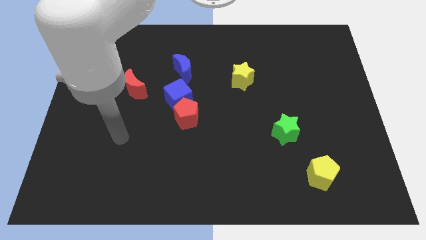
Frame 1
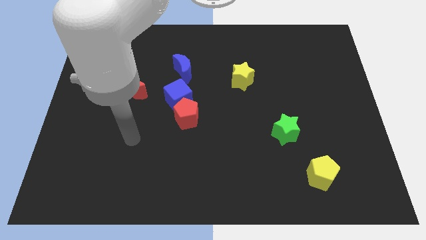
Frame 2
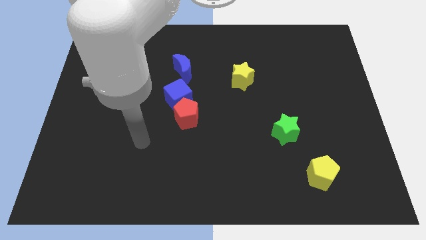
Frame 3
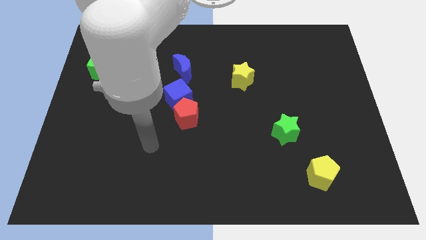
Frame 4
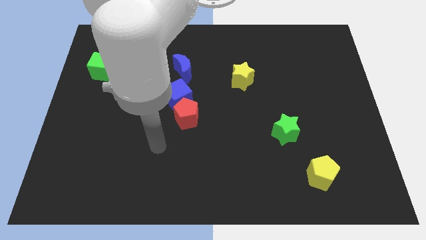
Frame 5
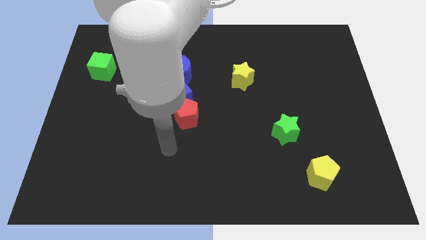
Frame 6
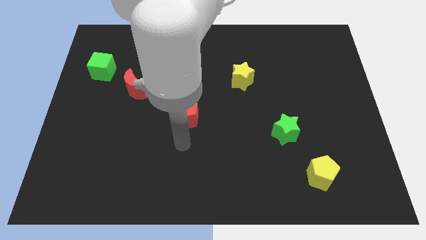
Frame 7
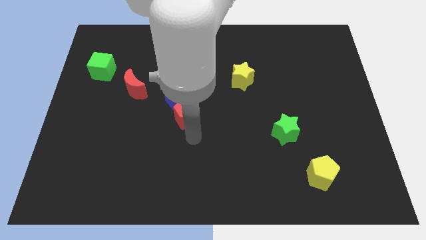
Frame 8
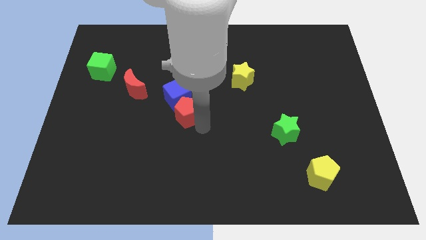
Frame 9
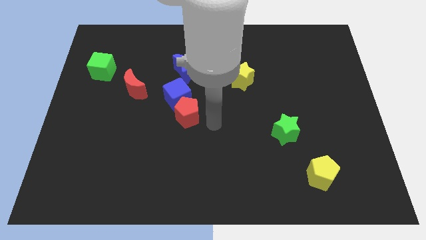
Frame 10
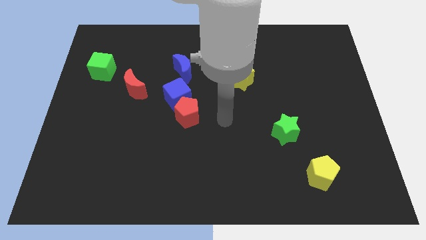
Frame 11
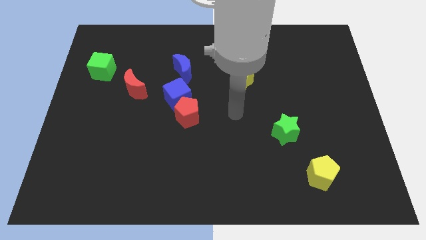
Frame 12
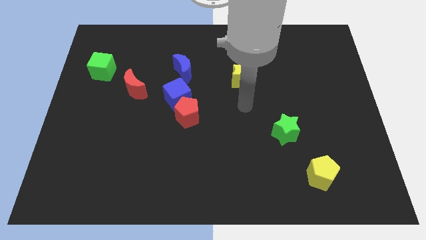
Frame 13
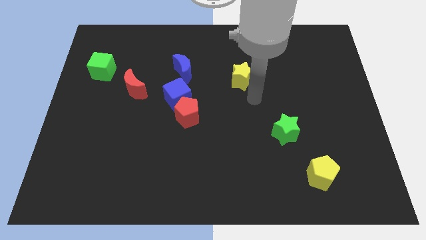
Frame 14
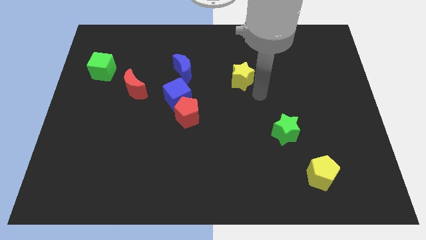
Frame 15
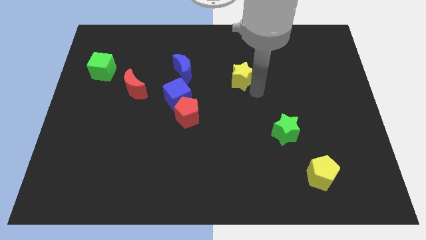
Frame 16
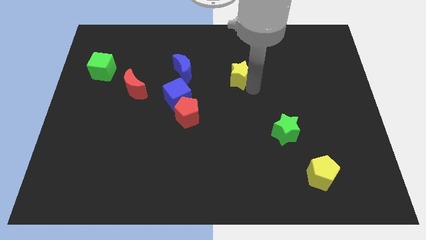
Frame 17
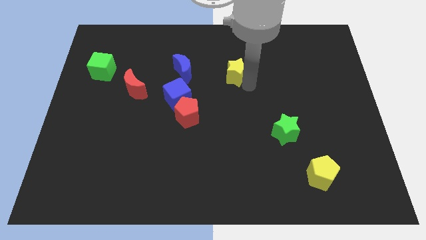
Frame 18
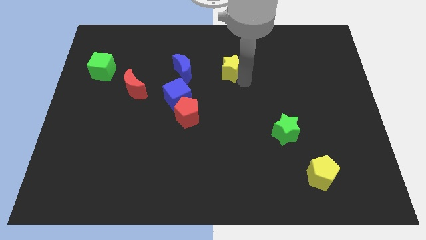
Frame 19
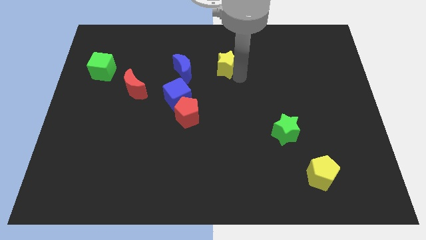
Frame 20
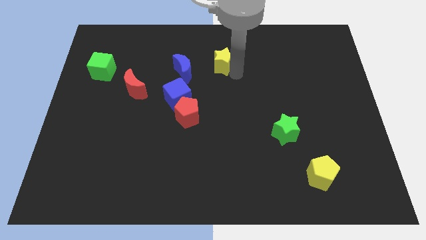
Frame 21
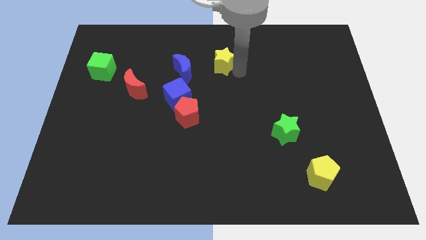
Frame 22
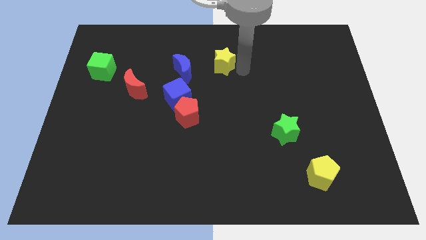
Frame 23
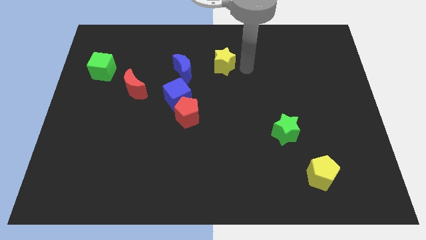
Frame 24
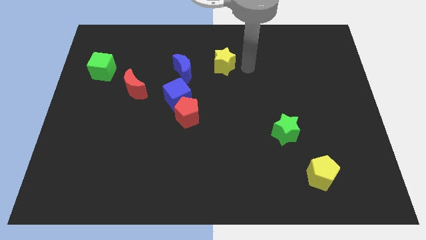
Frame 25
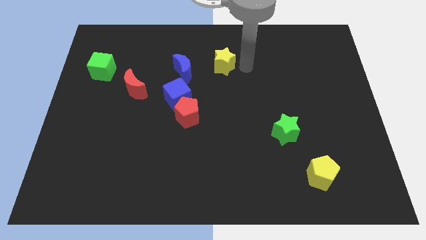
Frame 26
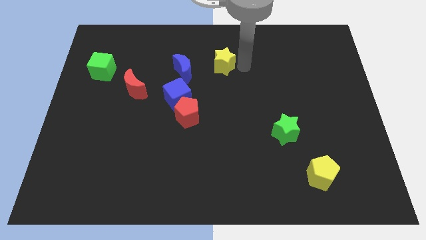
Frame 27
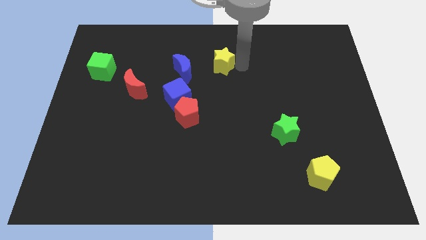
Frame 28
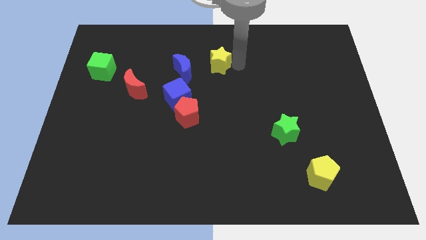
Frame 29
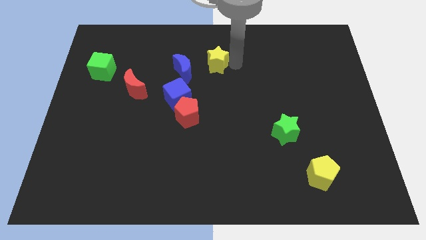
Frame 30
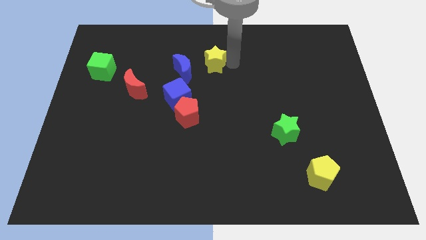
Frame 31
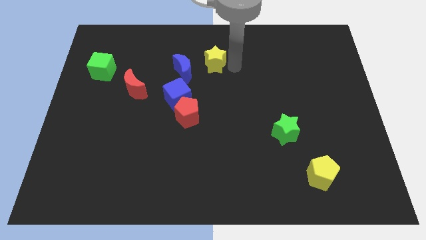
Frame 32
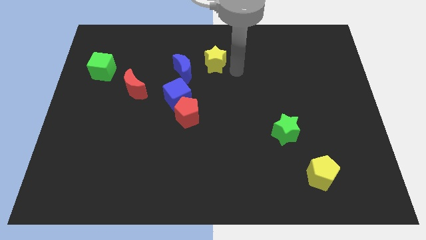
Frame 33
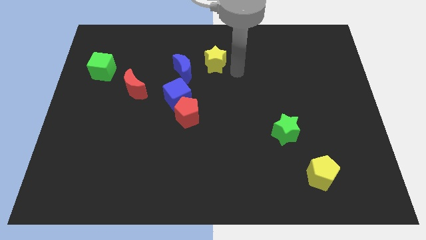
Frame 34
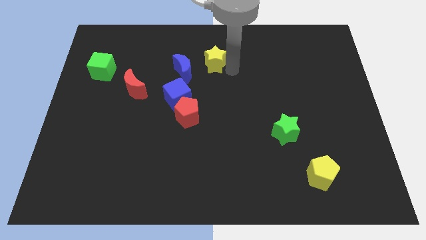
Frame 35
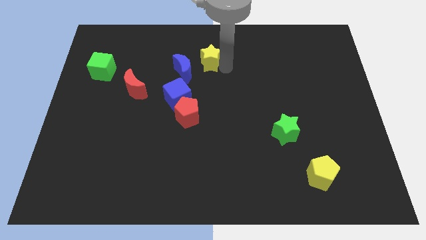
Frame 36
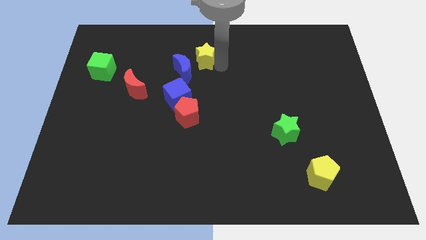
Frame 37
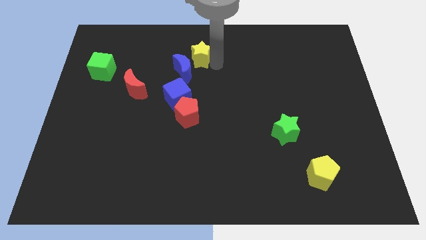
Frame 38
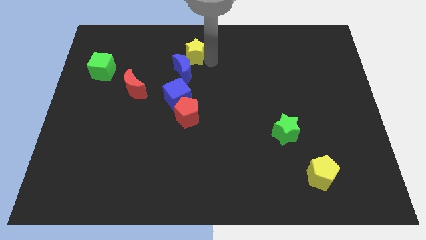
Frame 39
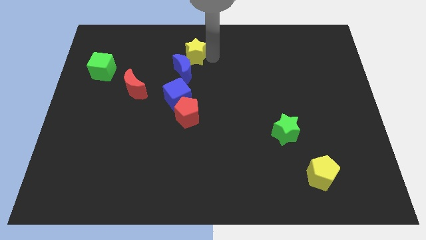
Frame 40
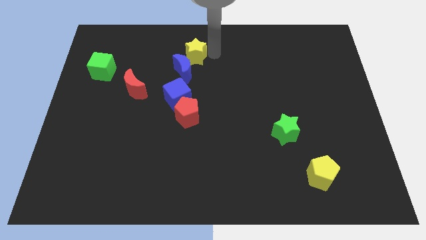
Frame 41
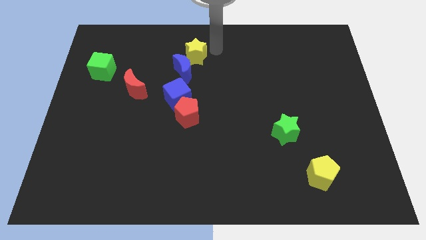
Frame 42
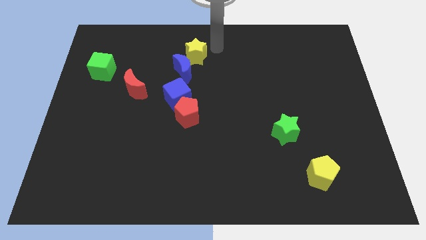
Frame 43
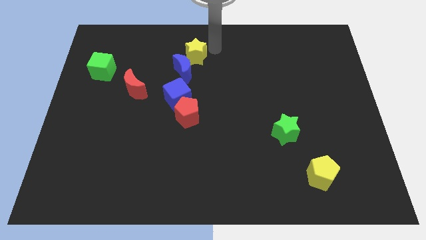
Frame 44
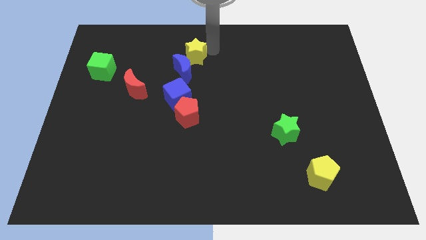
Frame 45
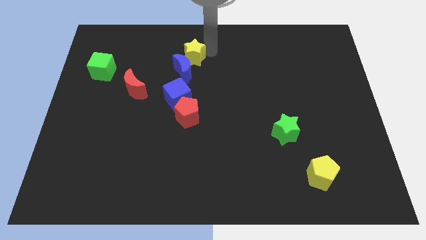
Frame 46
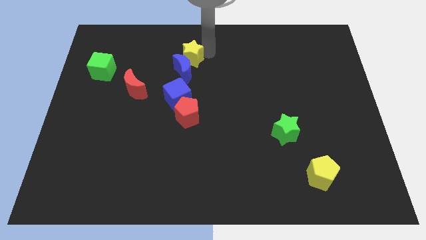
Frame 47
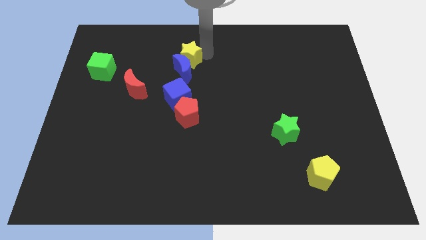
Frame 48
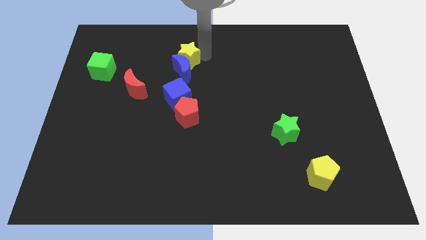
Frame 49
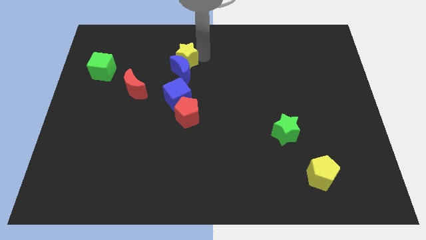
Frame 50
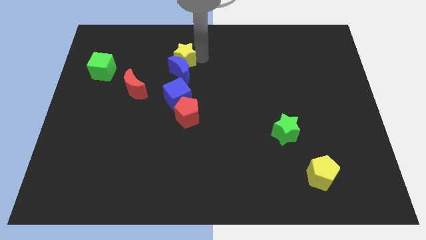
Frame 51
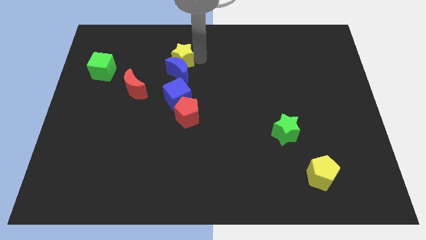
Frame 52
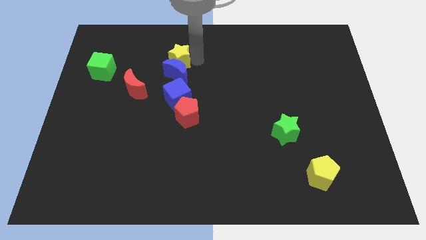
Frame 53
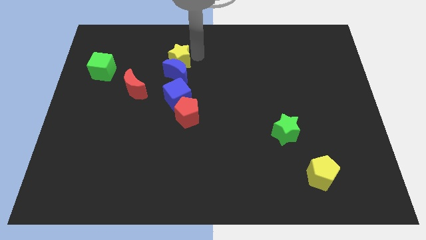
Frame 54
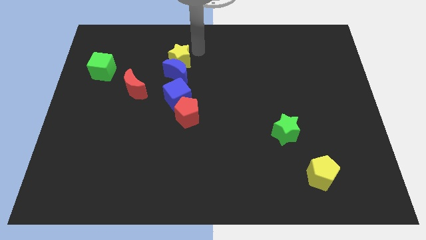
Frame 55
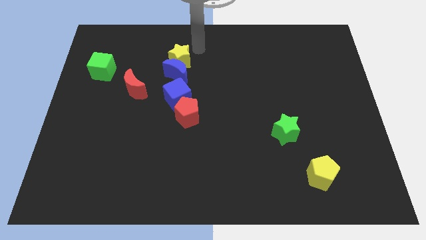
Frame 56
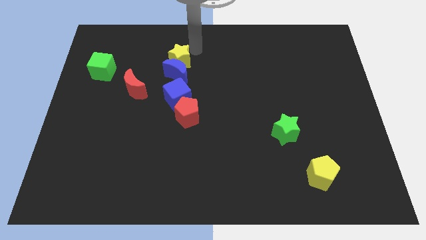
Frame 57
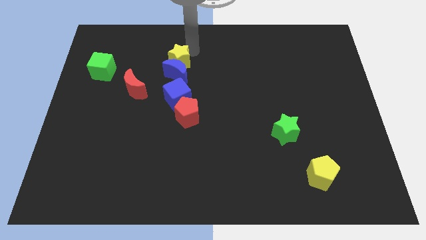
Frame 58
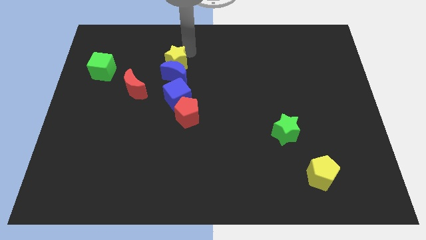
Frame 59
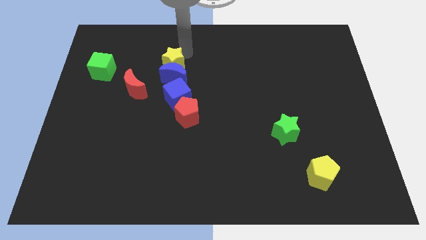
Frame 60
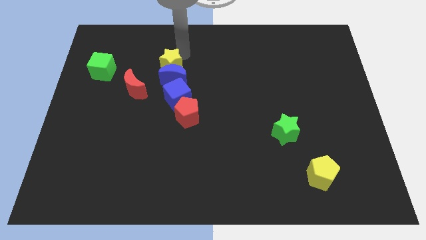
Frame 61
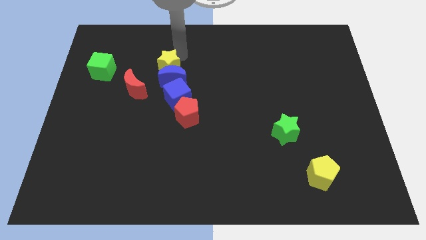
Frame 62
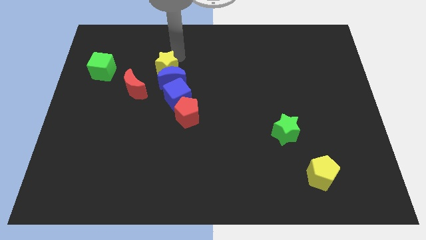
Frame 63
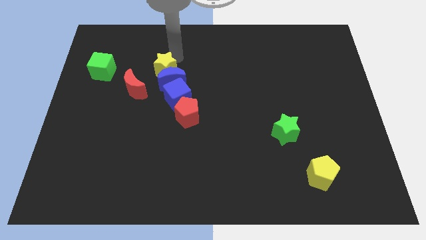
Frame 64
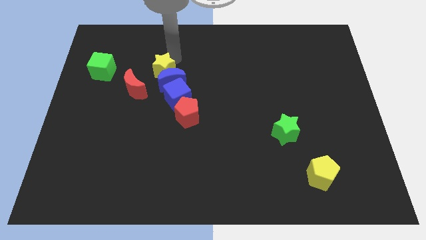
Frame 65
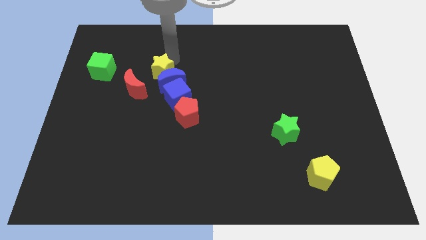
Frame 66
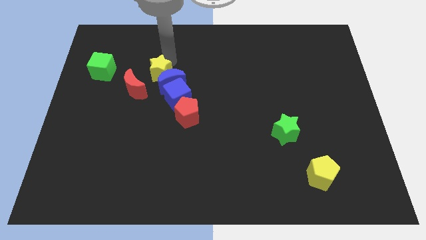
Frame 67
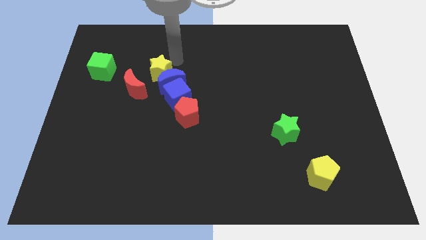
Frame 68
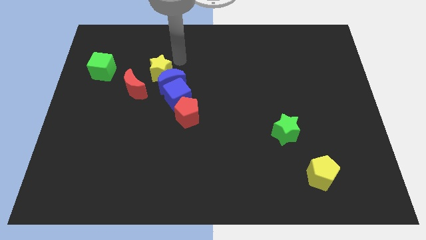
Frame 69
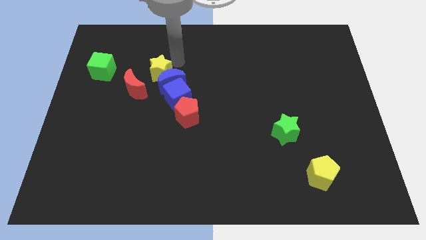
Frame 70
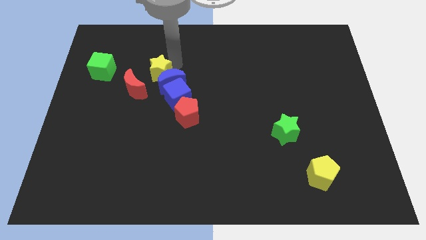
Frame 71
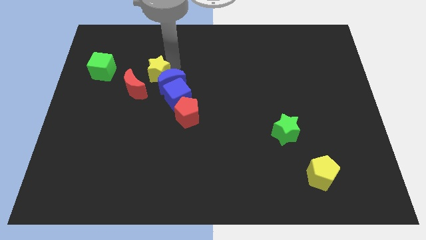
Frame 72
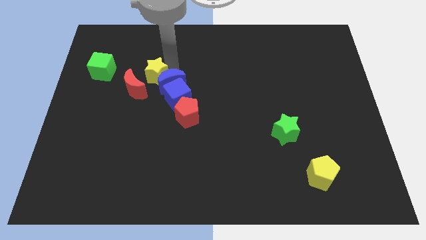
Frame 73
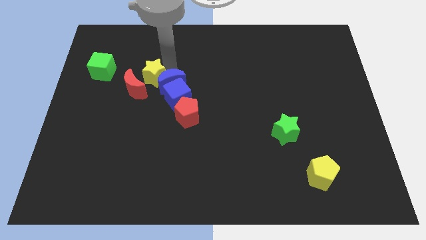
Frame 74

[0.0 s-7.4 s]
push the yellow star close to the red moon
